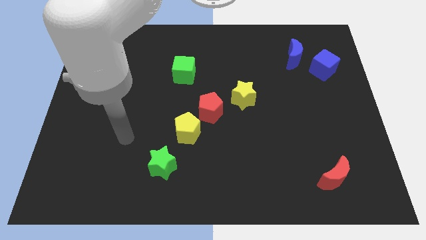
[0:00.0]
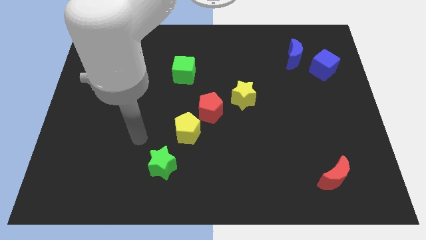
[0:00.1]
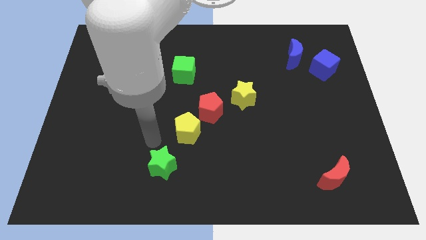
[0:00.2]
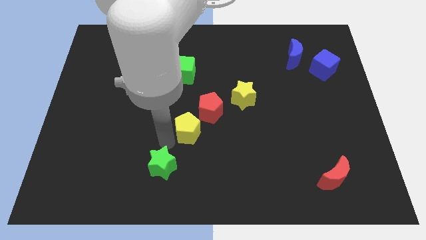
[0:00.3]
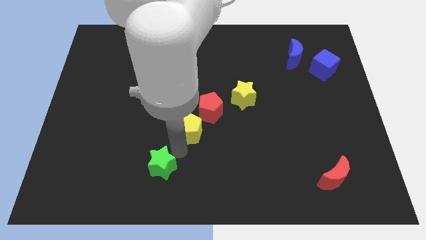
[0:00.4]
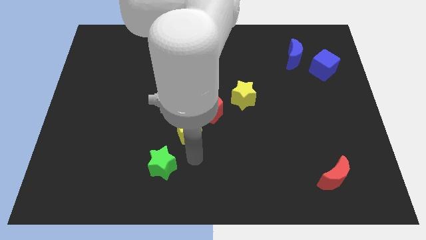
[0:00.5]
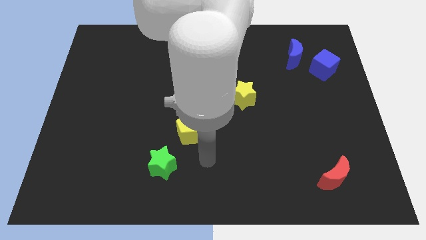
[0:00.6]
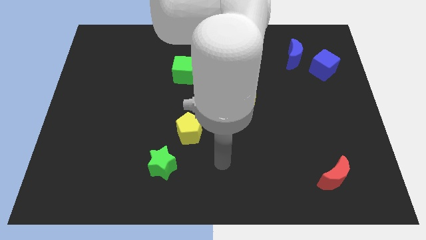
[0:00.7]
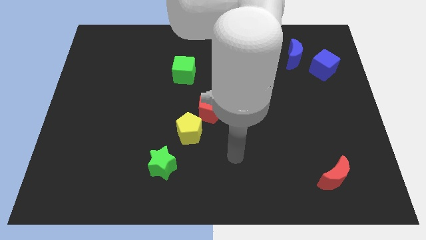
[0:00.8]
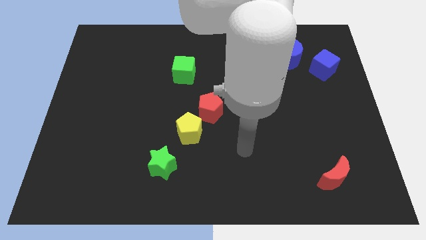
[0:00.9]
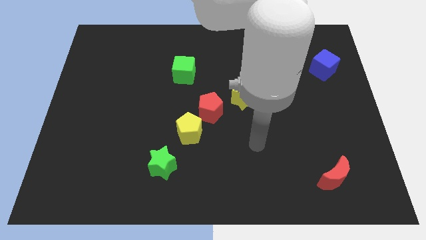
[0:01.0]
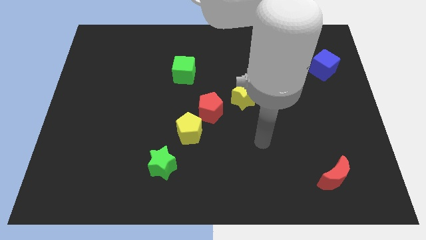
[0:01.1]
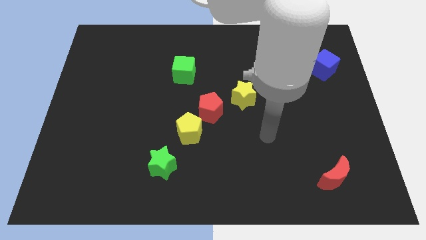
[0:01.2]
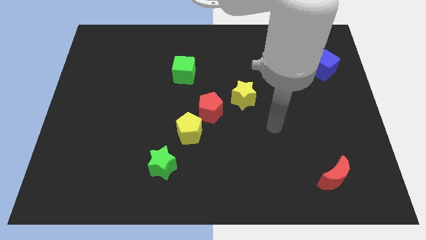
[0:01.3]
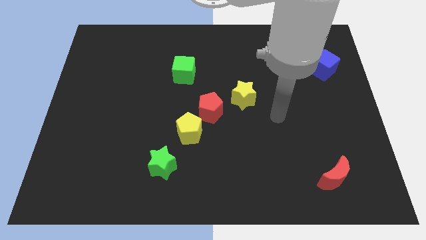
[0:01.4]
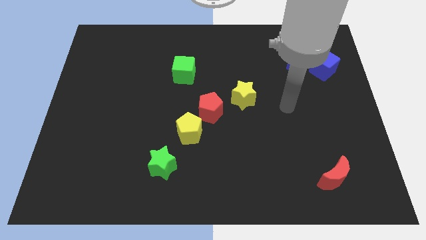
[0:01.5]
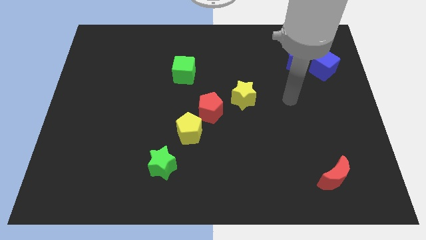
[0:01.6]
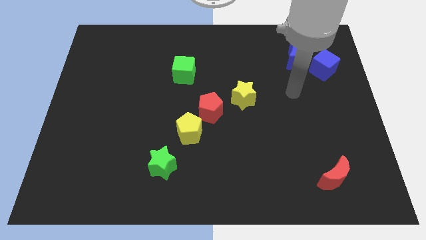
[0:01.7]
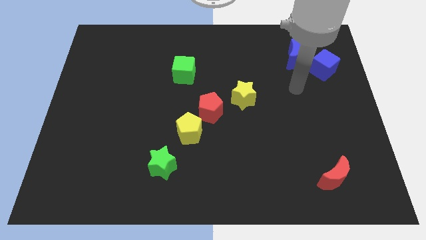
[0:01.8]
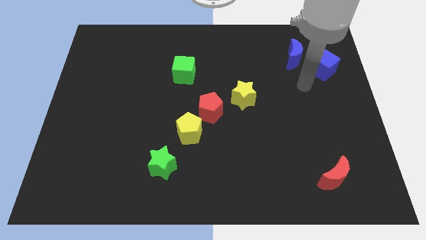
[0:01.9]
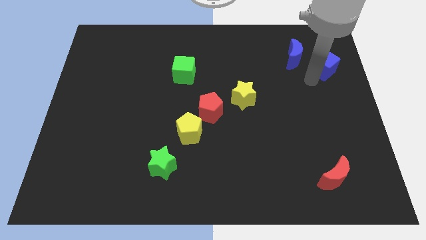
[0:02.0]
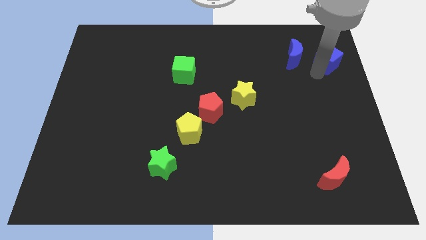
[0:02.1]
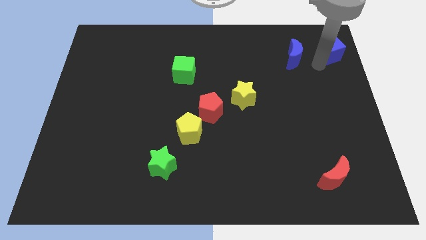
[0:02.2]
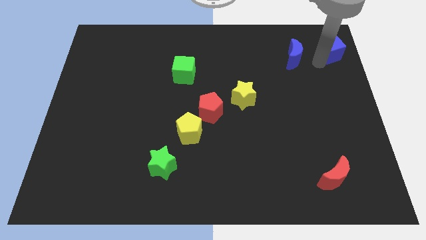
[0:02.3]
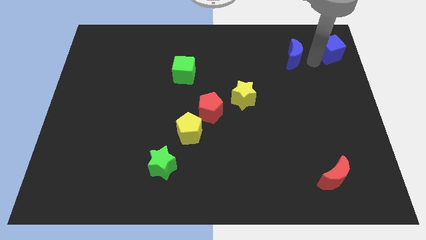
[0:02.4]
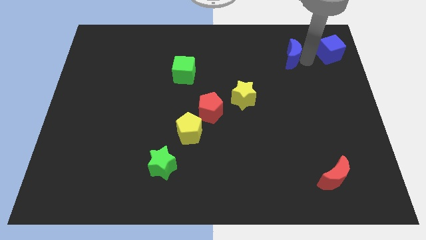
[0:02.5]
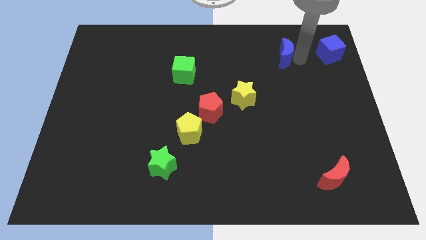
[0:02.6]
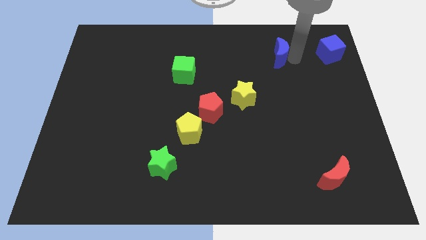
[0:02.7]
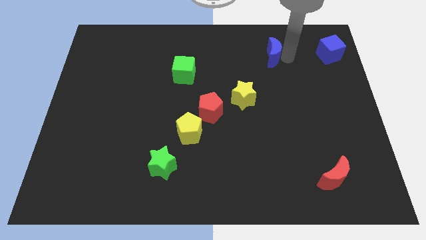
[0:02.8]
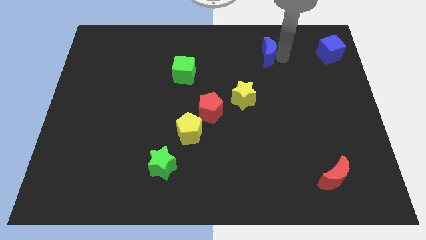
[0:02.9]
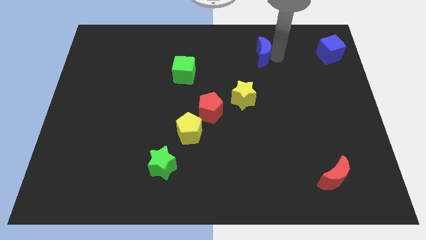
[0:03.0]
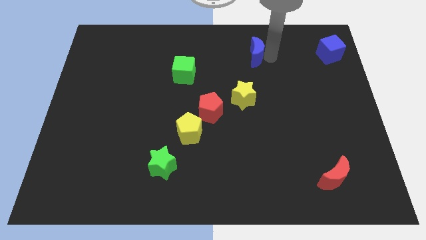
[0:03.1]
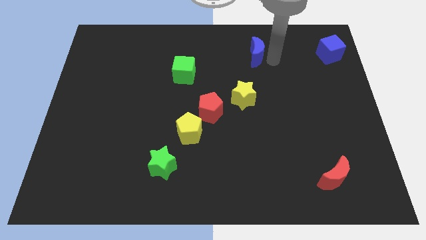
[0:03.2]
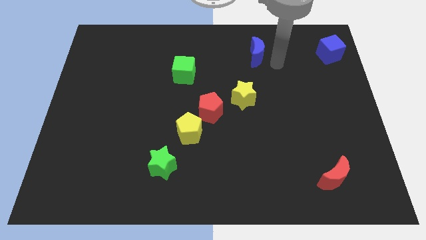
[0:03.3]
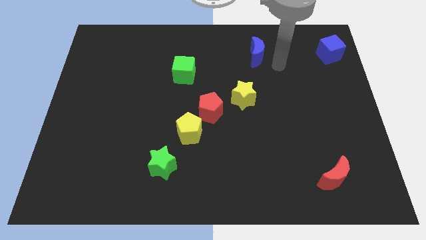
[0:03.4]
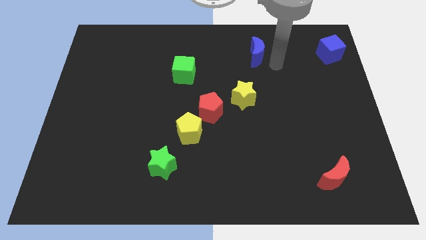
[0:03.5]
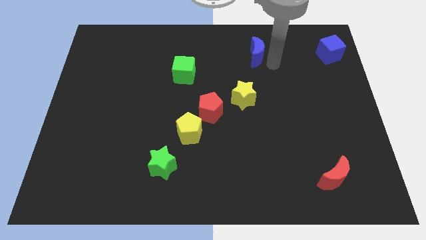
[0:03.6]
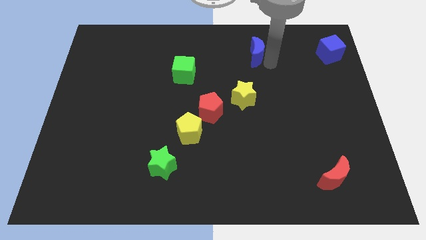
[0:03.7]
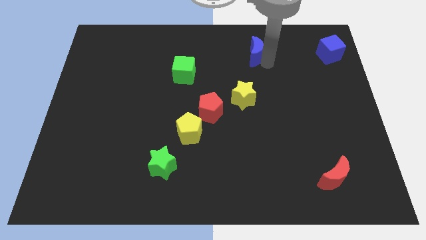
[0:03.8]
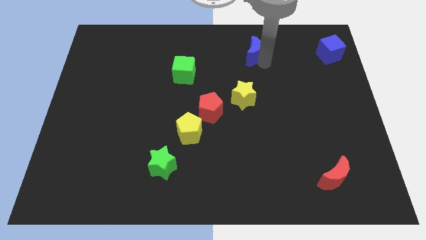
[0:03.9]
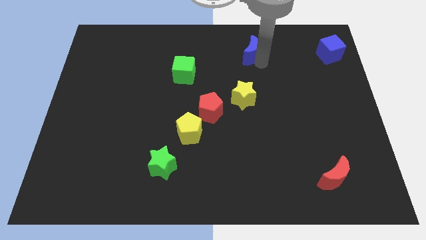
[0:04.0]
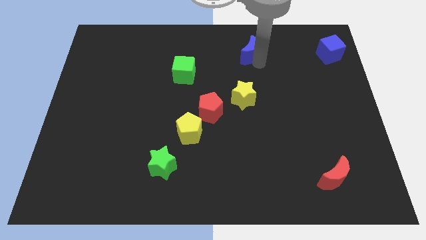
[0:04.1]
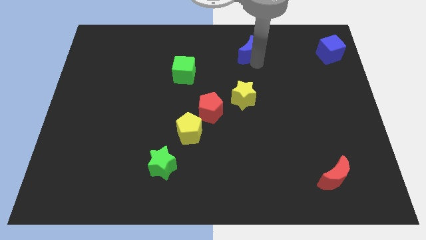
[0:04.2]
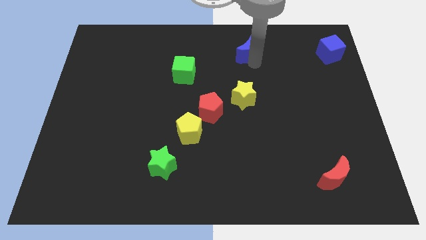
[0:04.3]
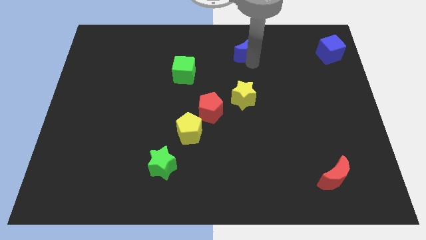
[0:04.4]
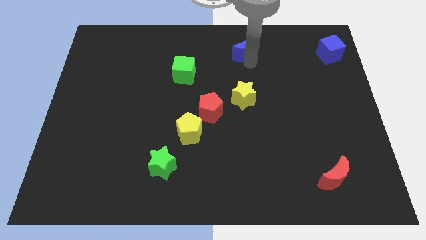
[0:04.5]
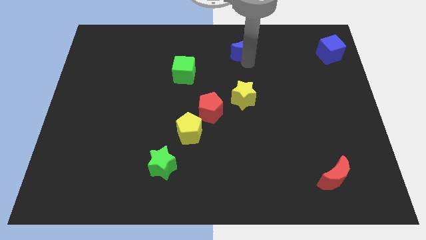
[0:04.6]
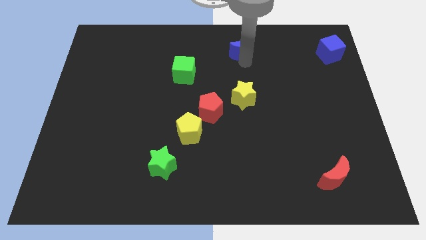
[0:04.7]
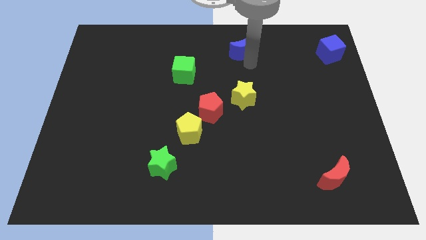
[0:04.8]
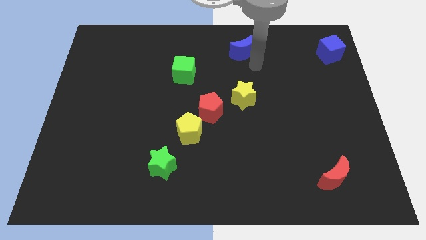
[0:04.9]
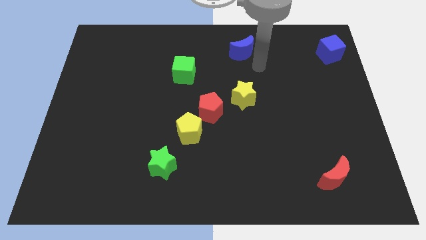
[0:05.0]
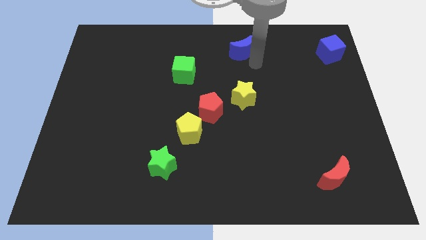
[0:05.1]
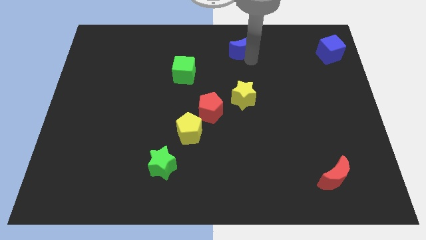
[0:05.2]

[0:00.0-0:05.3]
slide the blue moon to the top

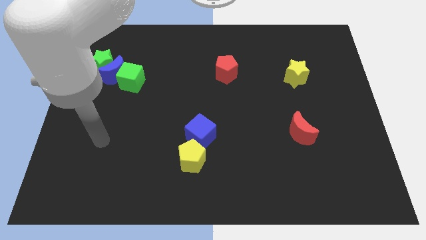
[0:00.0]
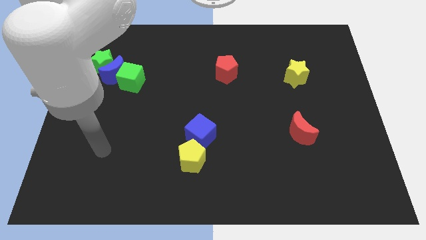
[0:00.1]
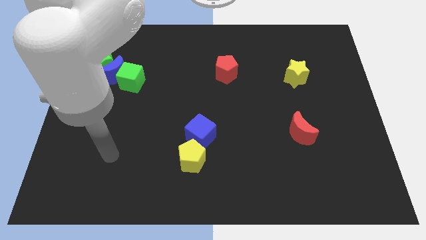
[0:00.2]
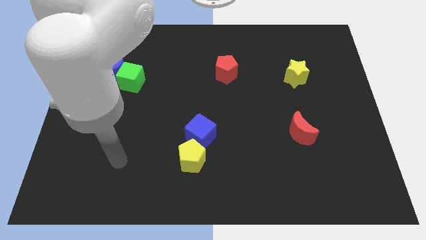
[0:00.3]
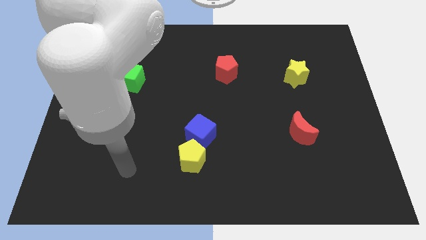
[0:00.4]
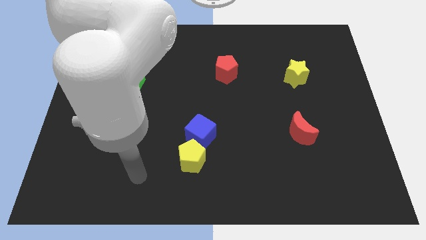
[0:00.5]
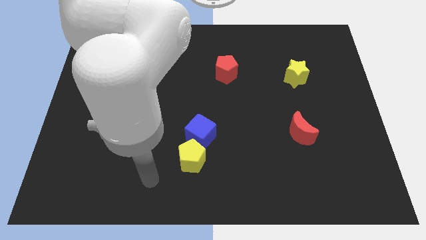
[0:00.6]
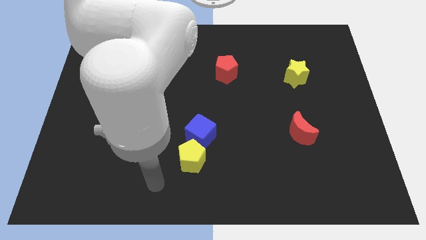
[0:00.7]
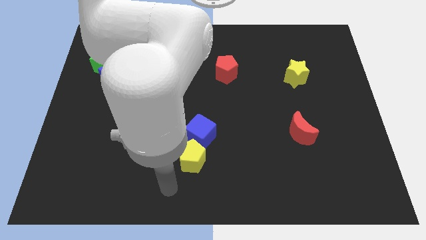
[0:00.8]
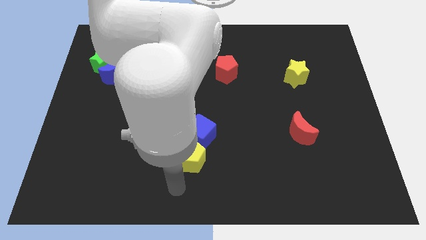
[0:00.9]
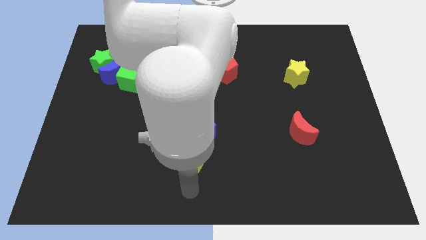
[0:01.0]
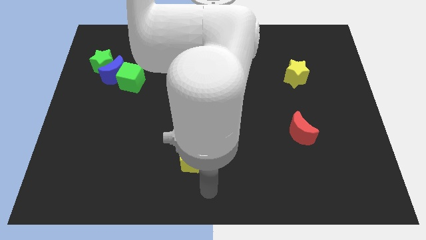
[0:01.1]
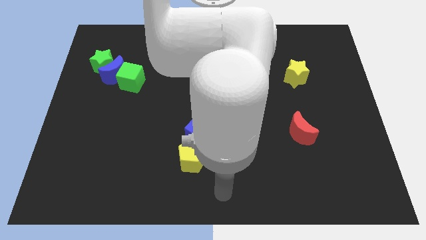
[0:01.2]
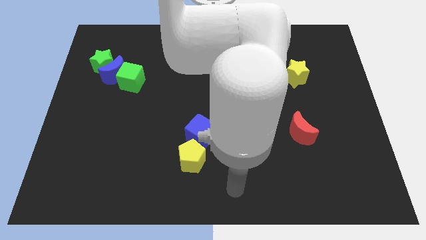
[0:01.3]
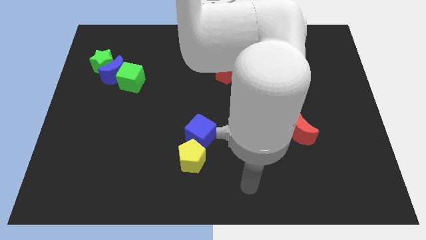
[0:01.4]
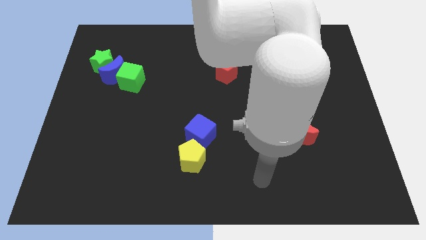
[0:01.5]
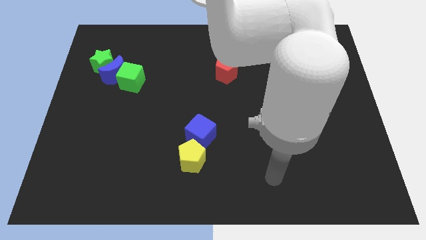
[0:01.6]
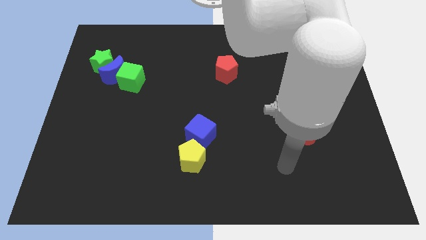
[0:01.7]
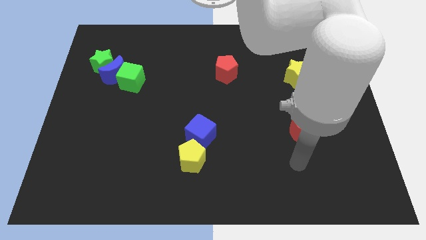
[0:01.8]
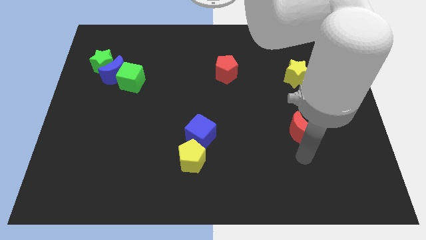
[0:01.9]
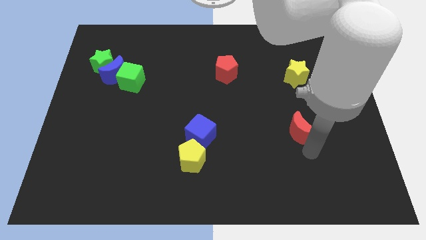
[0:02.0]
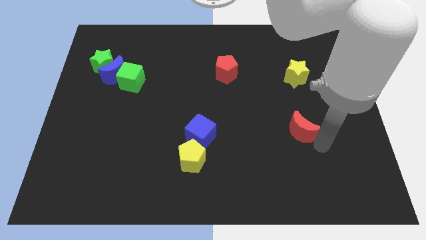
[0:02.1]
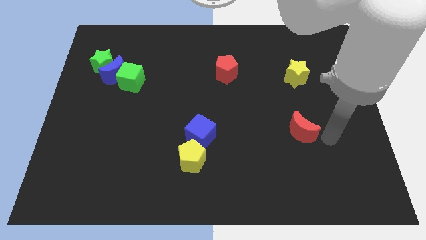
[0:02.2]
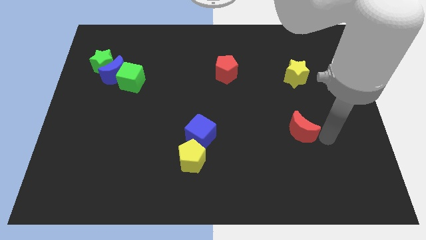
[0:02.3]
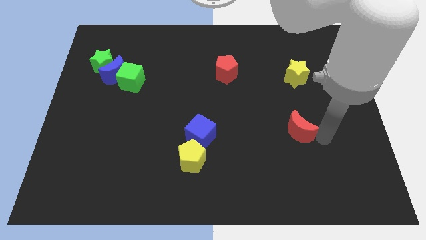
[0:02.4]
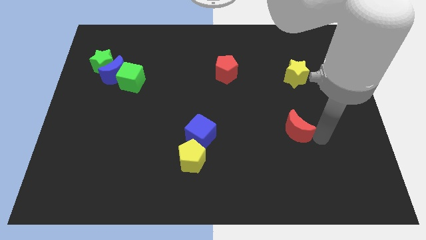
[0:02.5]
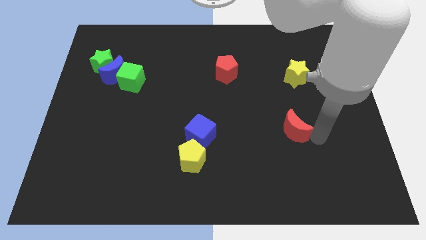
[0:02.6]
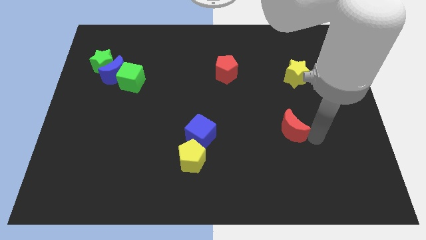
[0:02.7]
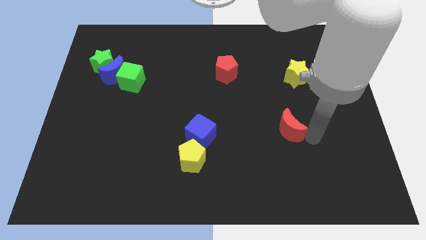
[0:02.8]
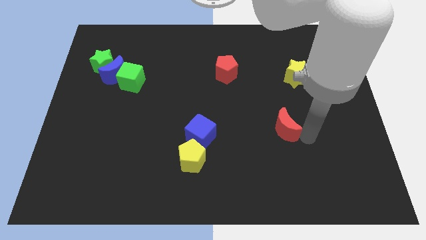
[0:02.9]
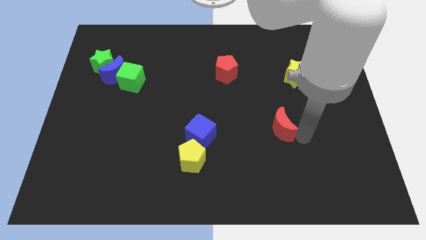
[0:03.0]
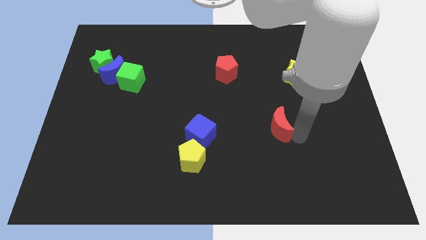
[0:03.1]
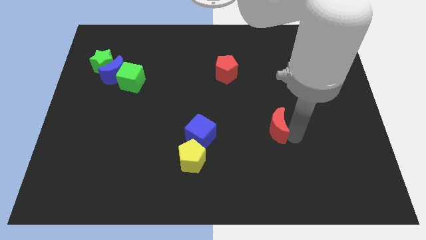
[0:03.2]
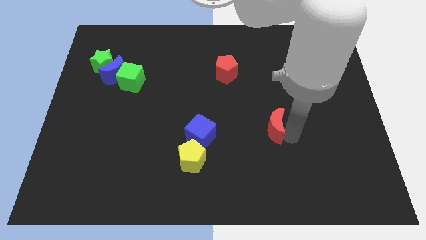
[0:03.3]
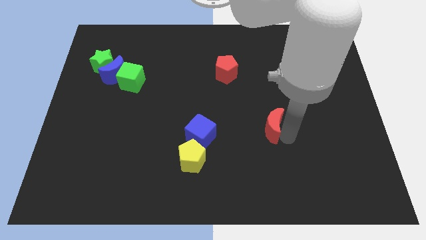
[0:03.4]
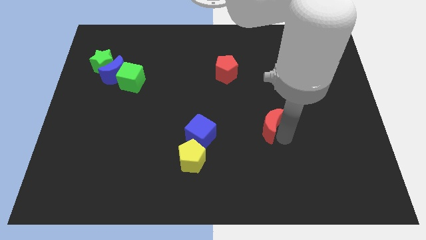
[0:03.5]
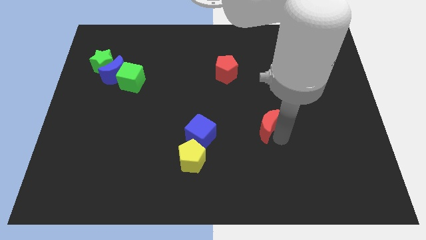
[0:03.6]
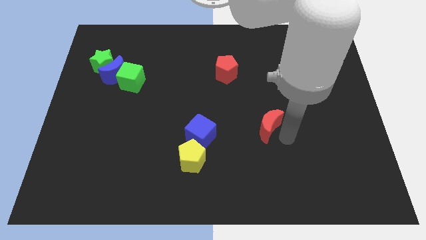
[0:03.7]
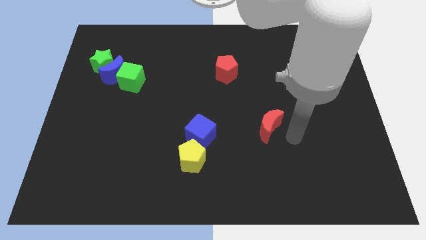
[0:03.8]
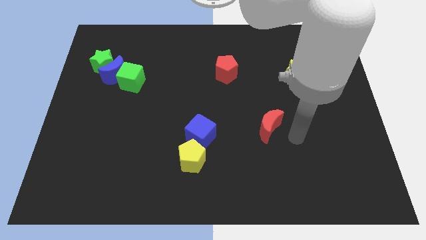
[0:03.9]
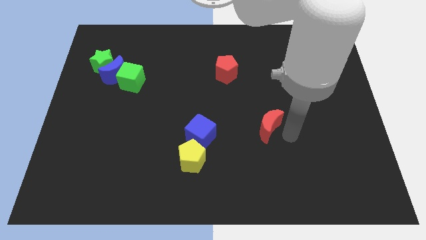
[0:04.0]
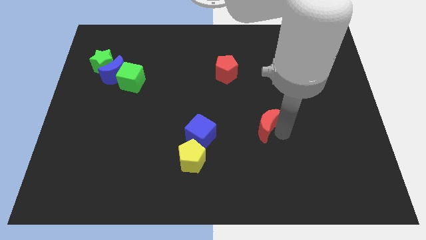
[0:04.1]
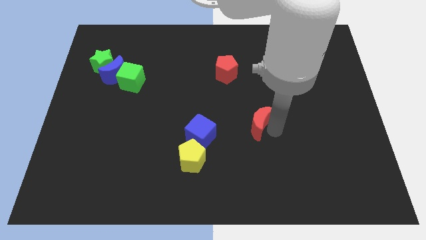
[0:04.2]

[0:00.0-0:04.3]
move the red moon to the middle
